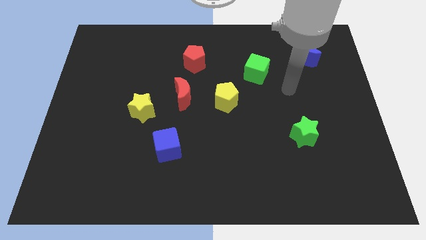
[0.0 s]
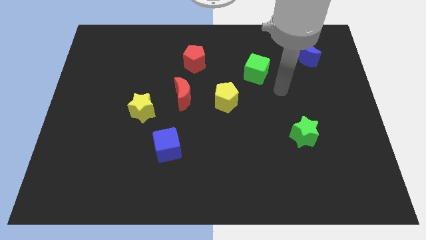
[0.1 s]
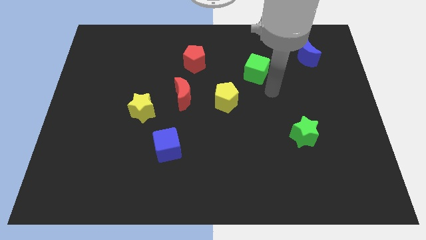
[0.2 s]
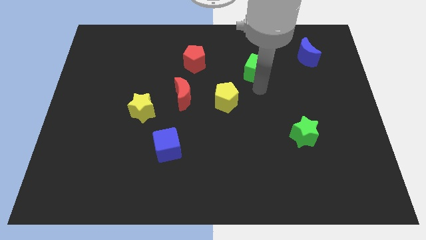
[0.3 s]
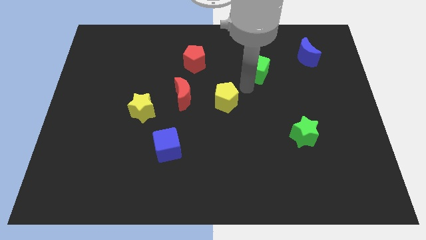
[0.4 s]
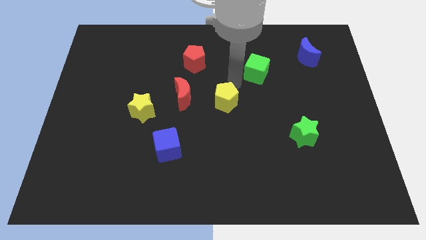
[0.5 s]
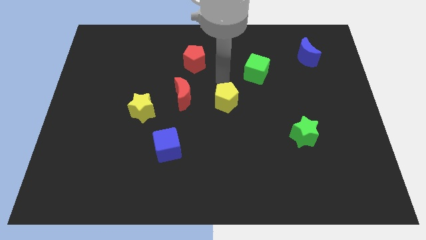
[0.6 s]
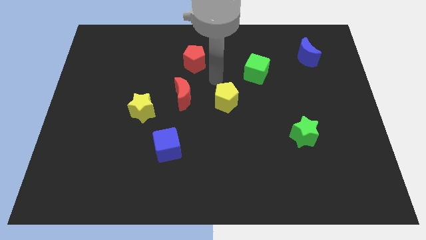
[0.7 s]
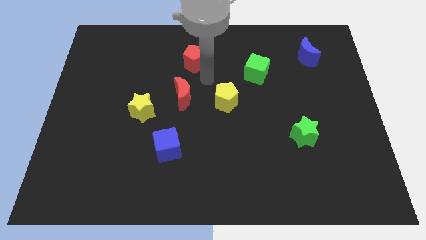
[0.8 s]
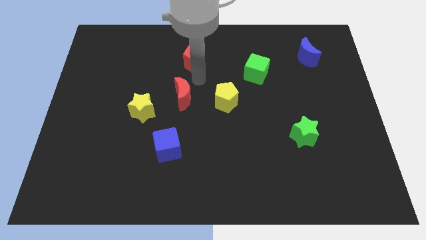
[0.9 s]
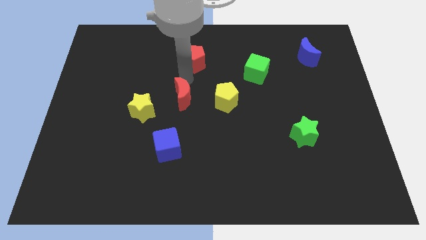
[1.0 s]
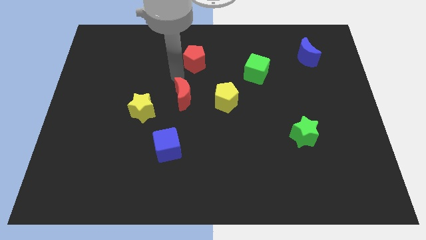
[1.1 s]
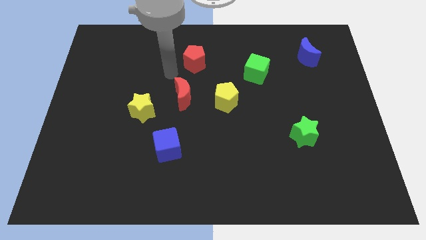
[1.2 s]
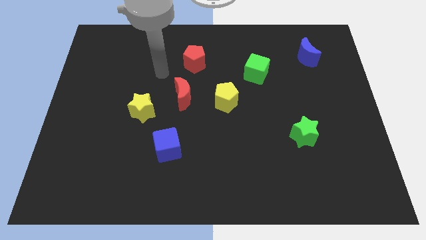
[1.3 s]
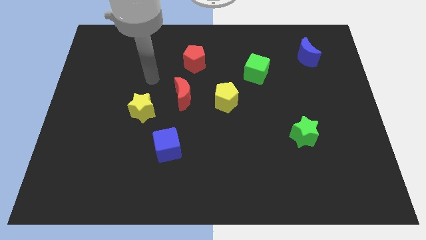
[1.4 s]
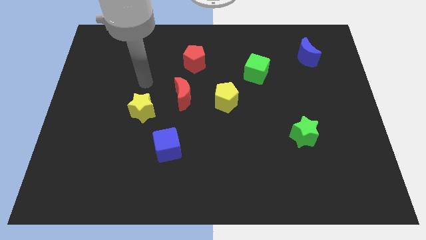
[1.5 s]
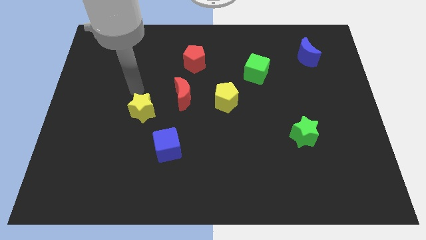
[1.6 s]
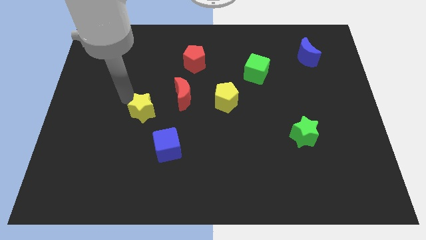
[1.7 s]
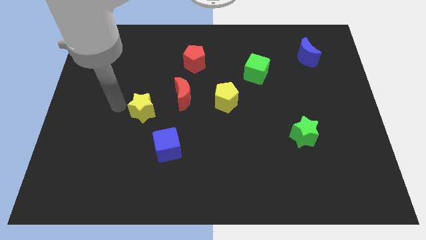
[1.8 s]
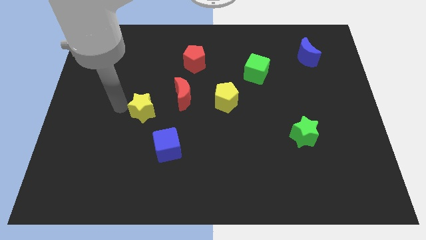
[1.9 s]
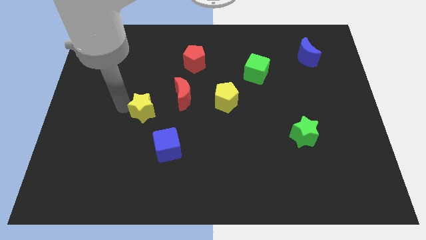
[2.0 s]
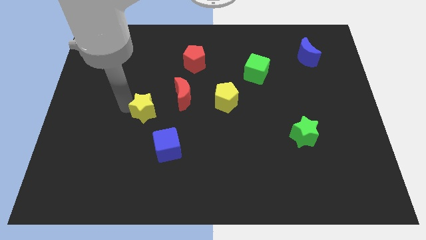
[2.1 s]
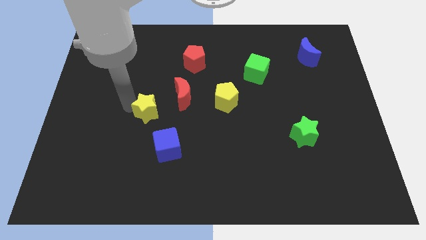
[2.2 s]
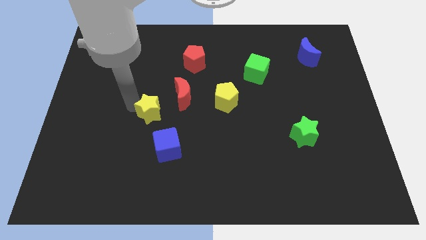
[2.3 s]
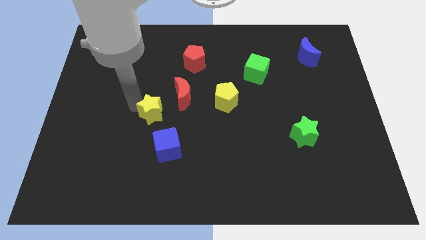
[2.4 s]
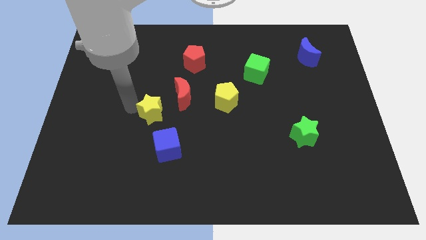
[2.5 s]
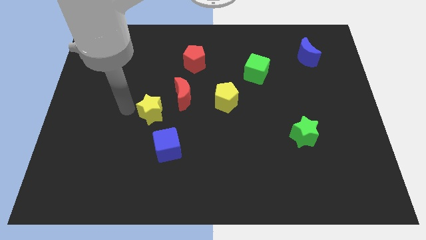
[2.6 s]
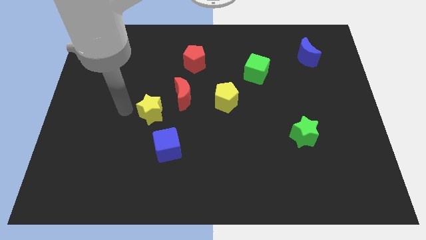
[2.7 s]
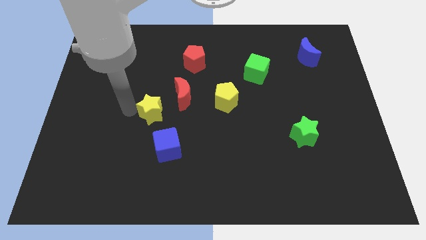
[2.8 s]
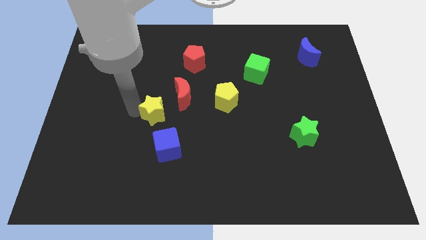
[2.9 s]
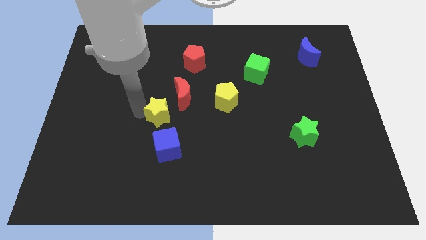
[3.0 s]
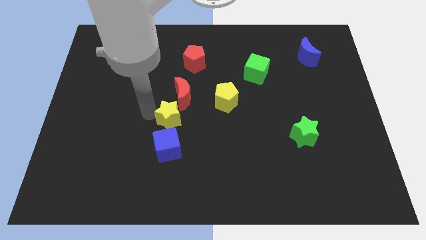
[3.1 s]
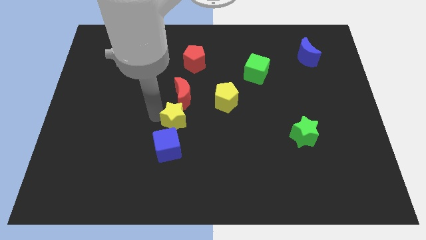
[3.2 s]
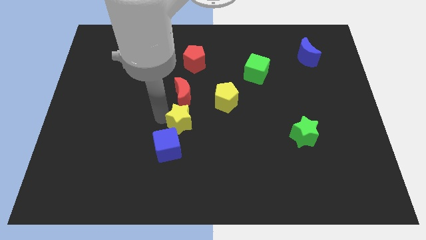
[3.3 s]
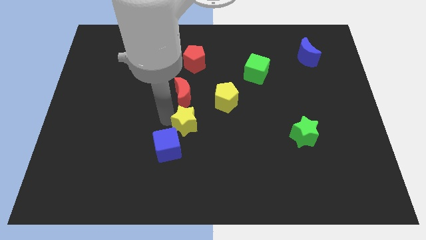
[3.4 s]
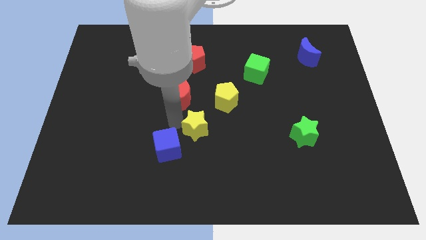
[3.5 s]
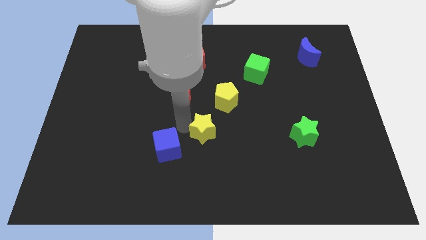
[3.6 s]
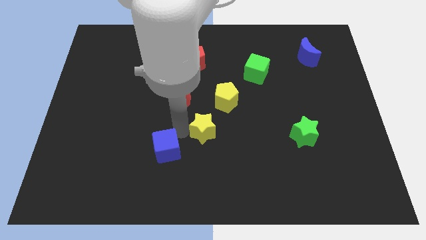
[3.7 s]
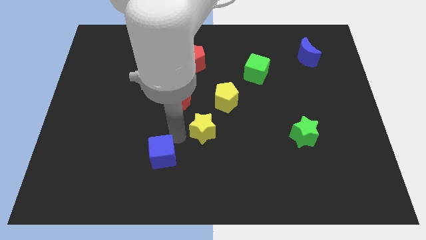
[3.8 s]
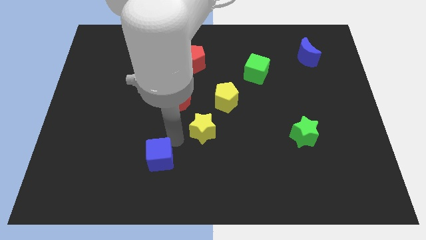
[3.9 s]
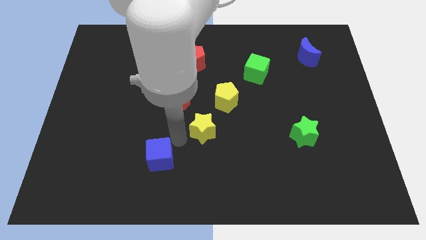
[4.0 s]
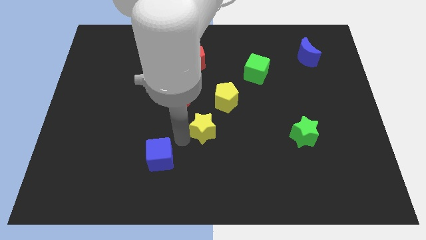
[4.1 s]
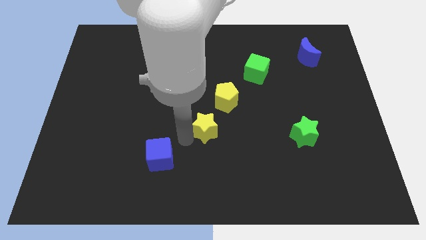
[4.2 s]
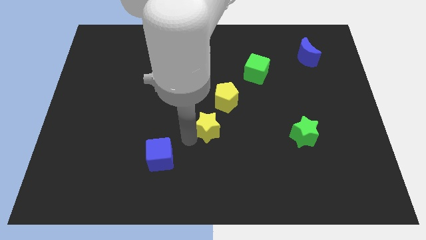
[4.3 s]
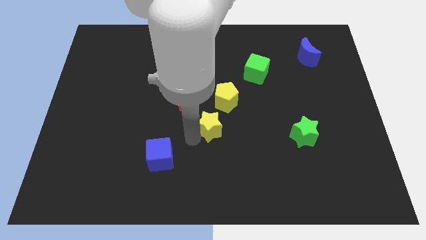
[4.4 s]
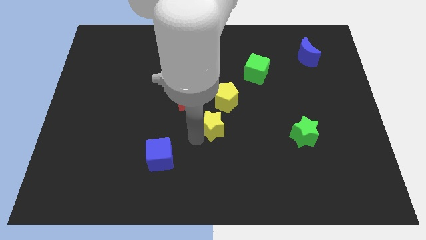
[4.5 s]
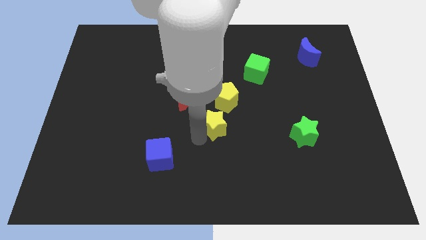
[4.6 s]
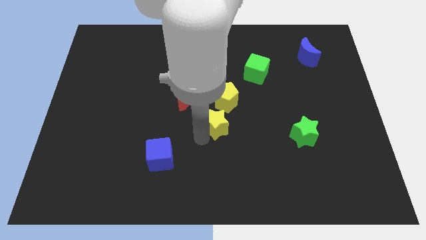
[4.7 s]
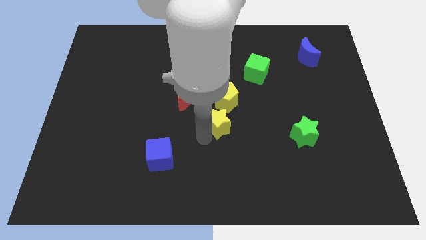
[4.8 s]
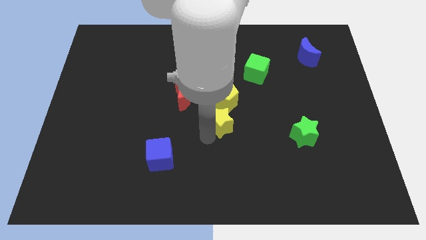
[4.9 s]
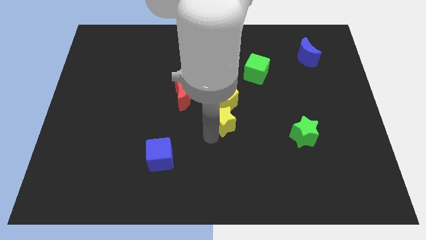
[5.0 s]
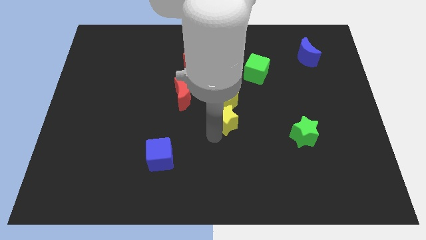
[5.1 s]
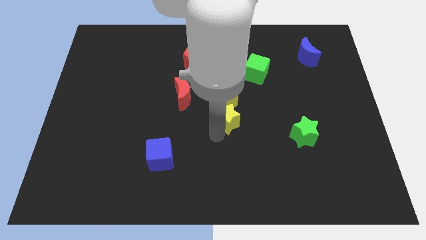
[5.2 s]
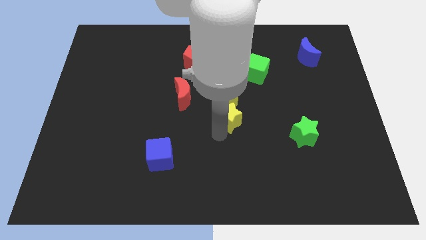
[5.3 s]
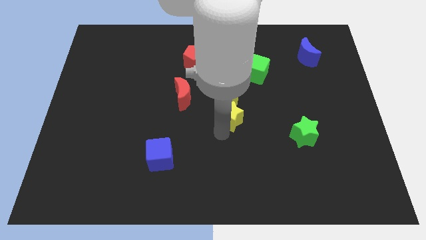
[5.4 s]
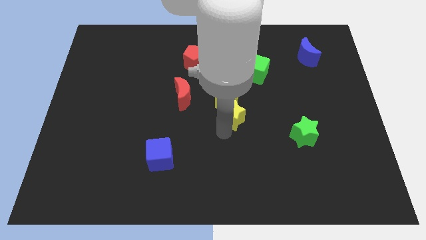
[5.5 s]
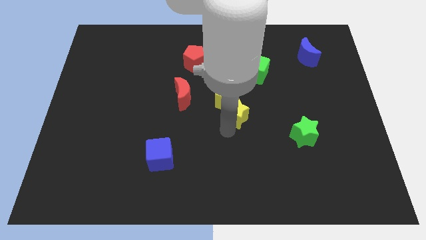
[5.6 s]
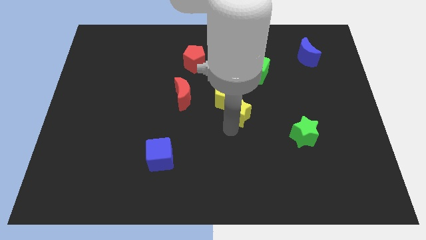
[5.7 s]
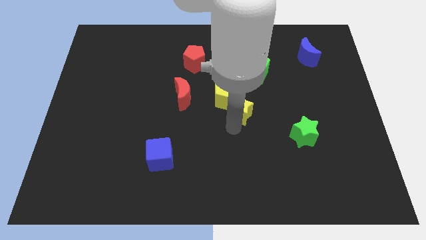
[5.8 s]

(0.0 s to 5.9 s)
slide the yellow star below the green cube

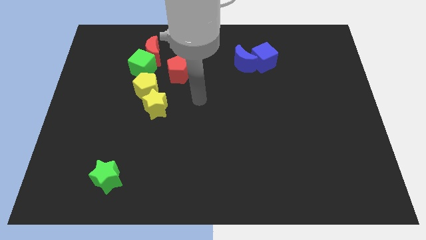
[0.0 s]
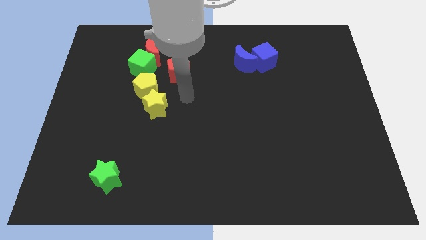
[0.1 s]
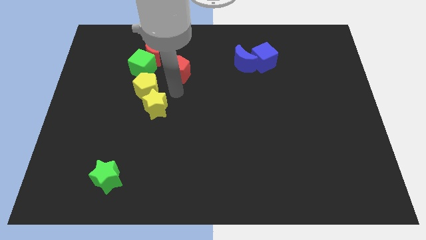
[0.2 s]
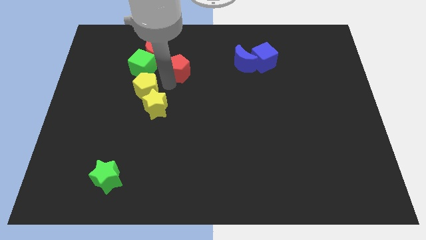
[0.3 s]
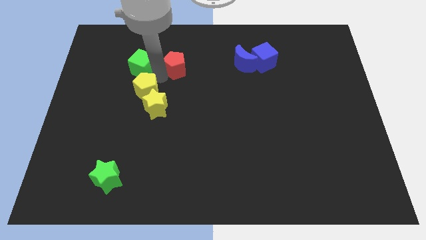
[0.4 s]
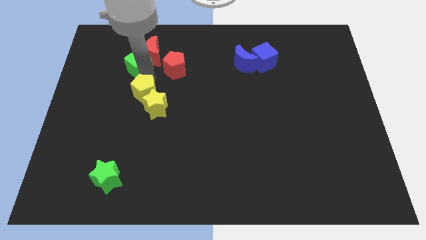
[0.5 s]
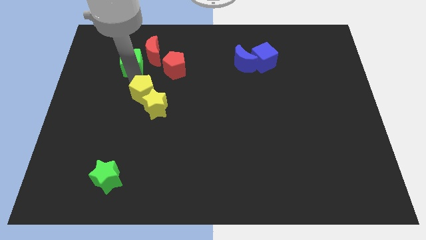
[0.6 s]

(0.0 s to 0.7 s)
put the red moon to the right side of the green cube
